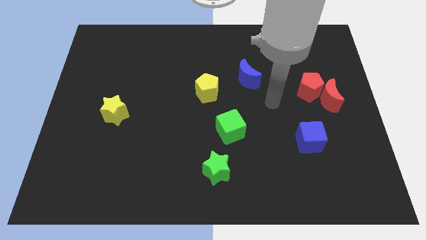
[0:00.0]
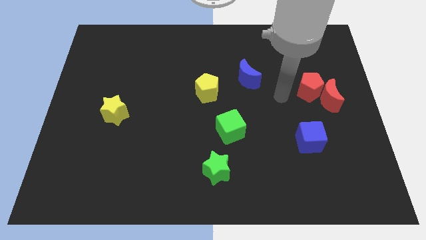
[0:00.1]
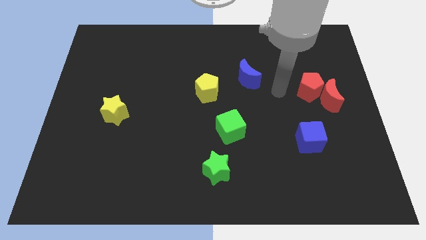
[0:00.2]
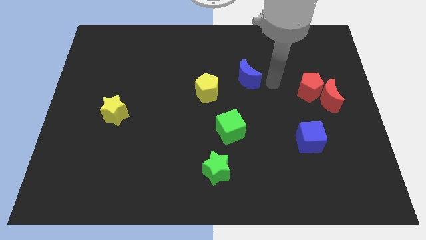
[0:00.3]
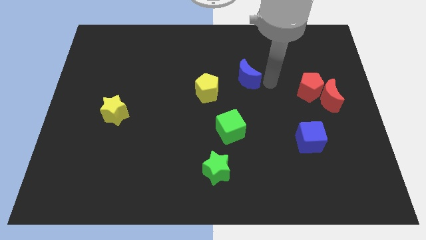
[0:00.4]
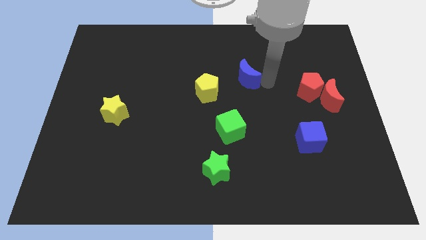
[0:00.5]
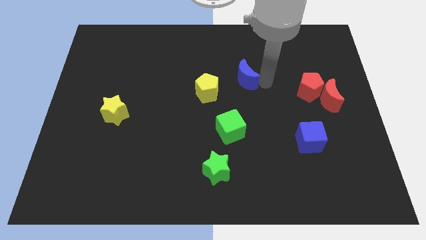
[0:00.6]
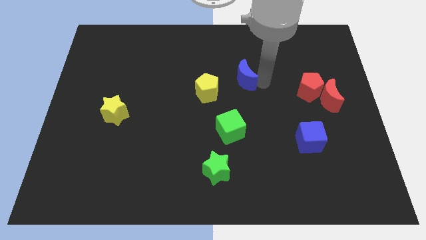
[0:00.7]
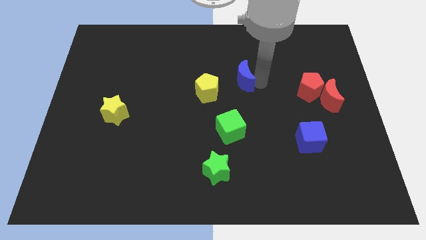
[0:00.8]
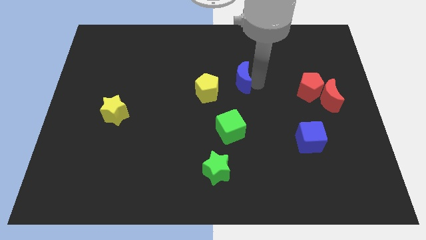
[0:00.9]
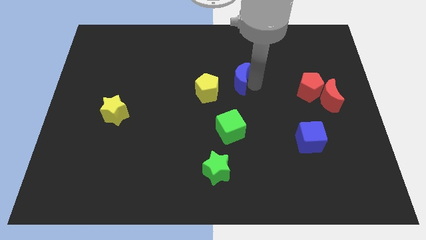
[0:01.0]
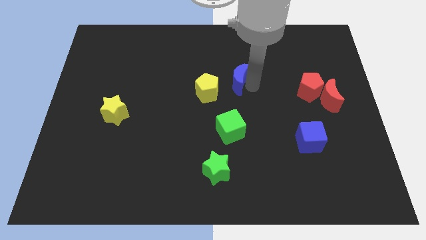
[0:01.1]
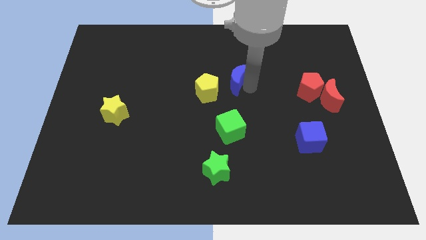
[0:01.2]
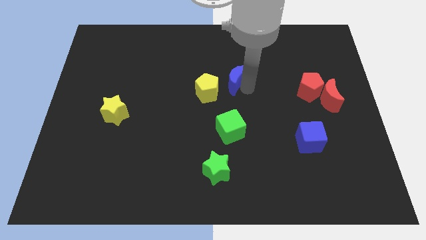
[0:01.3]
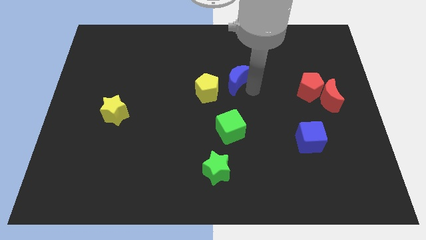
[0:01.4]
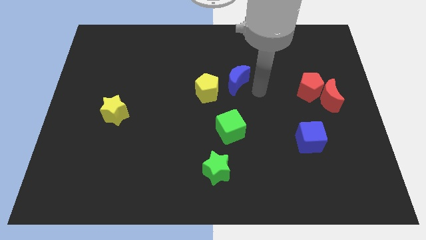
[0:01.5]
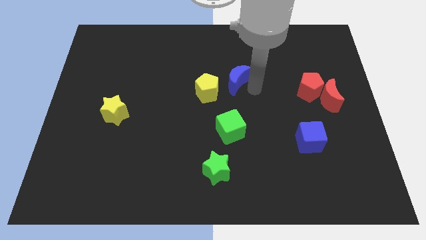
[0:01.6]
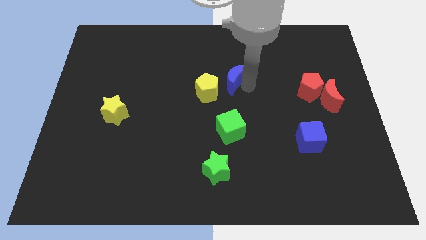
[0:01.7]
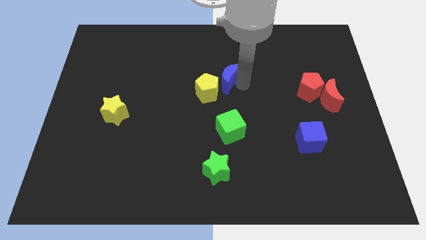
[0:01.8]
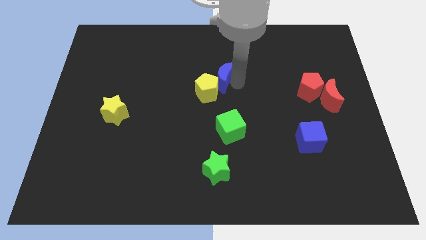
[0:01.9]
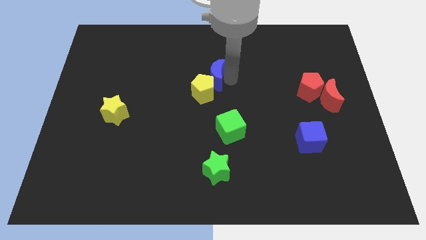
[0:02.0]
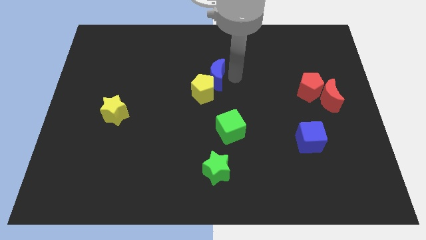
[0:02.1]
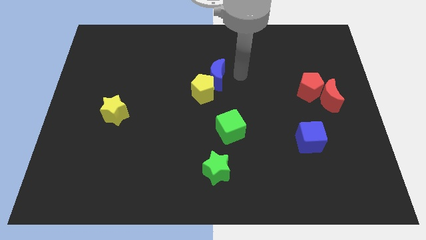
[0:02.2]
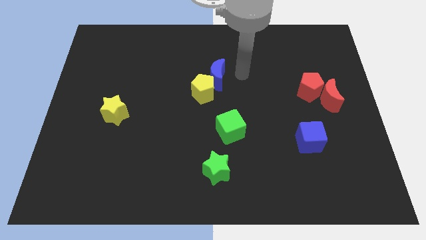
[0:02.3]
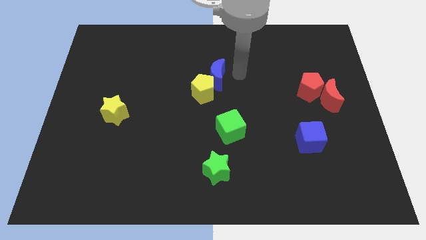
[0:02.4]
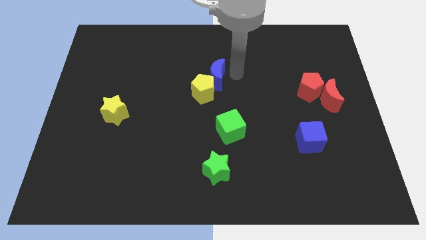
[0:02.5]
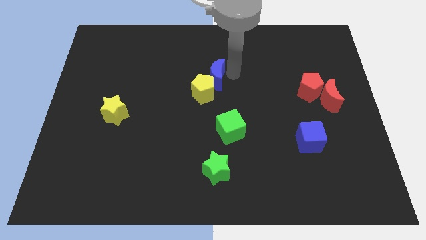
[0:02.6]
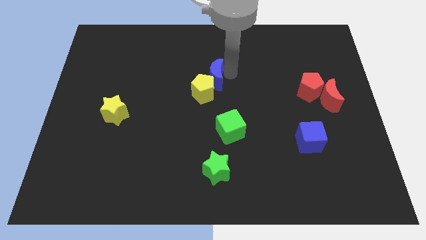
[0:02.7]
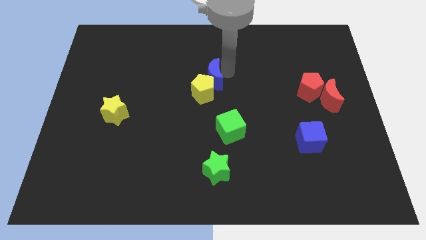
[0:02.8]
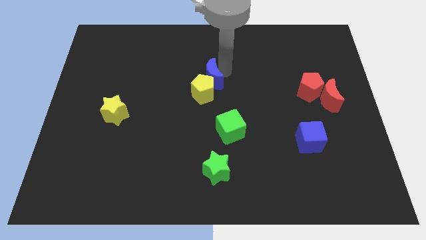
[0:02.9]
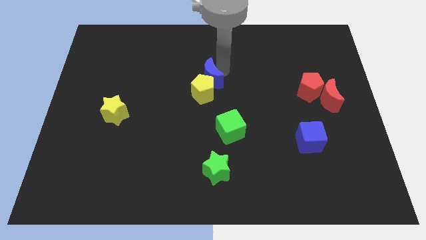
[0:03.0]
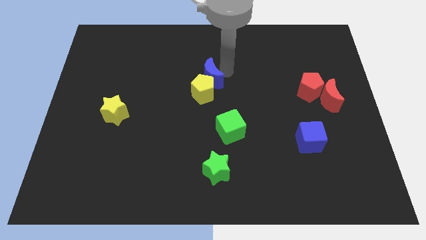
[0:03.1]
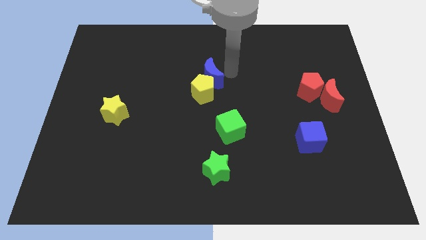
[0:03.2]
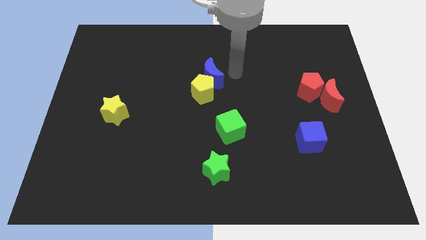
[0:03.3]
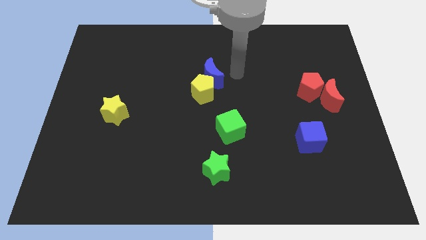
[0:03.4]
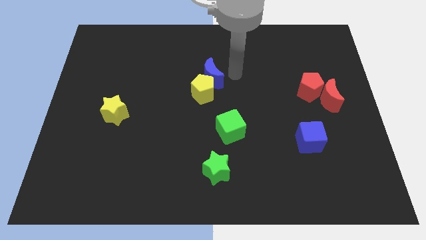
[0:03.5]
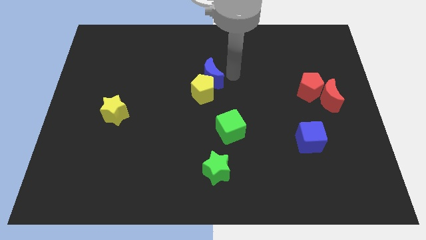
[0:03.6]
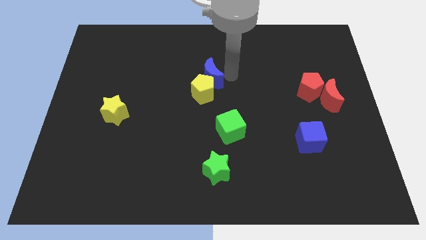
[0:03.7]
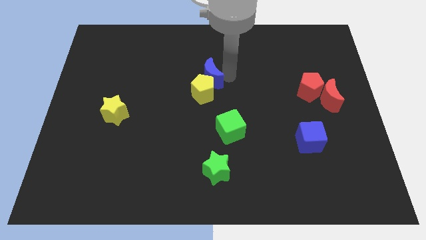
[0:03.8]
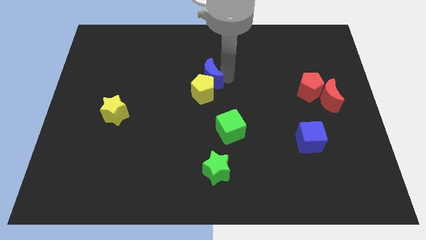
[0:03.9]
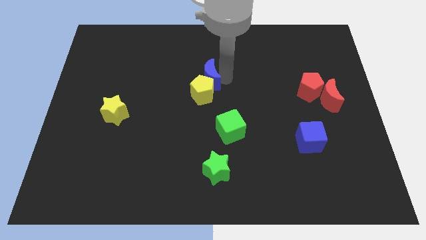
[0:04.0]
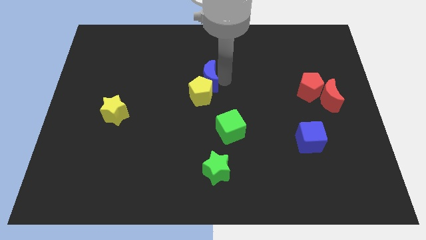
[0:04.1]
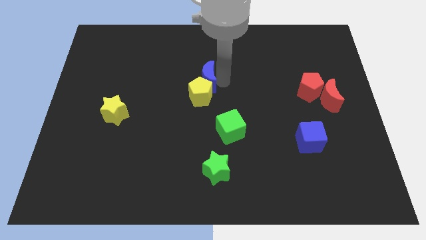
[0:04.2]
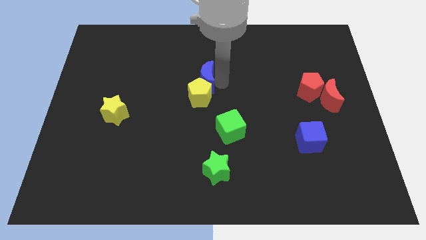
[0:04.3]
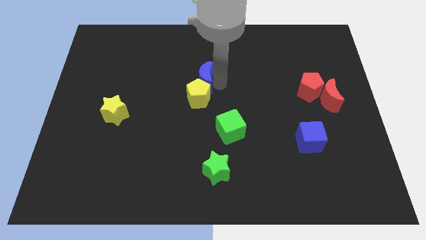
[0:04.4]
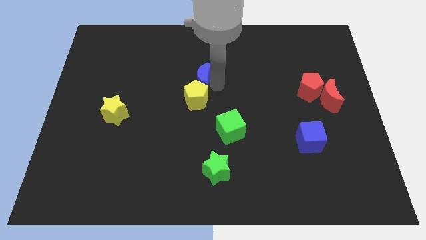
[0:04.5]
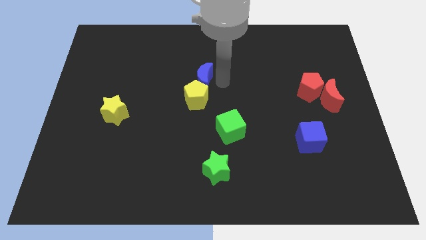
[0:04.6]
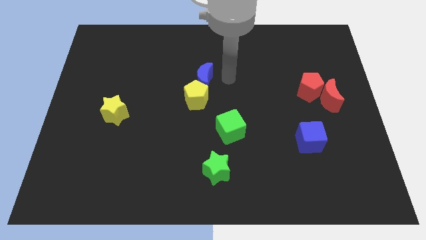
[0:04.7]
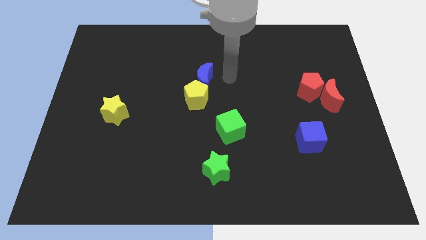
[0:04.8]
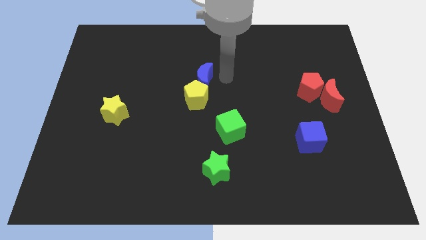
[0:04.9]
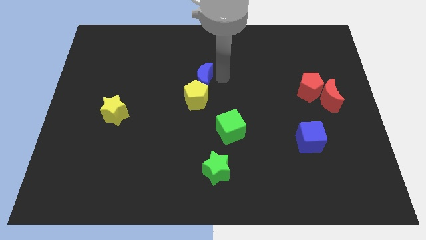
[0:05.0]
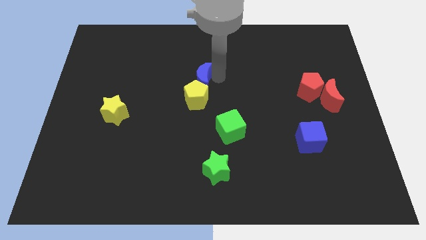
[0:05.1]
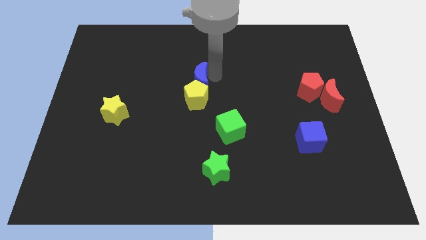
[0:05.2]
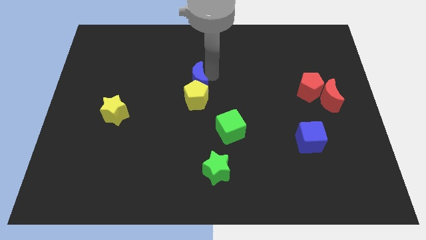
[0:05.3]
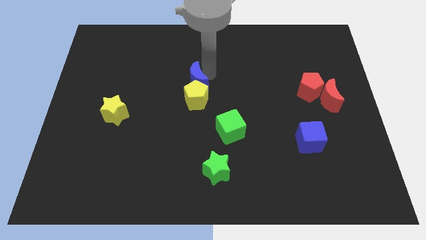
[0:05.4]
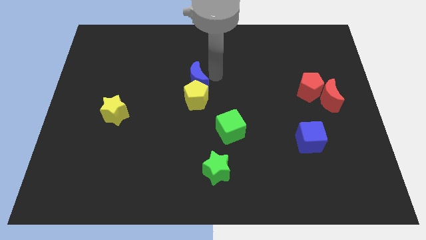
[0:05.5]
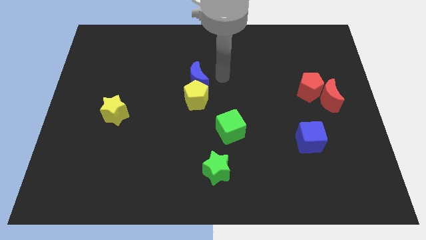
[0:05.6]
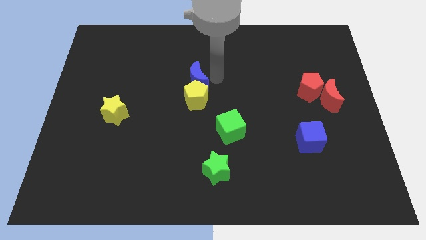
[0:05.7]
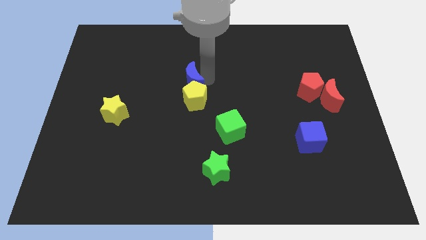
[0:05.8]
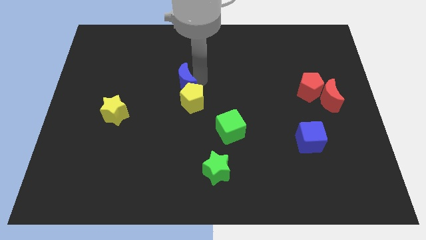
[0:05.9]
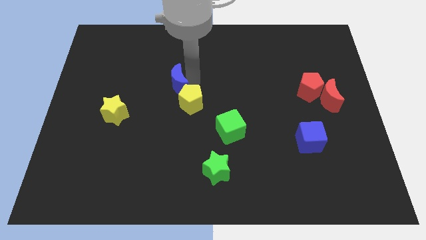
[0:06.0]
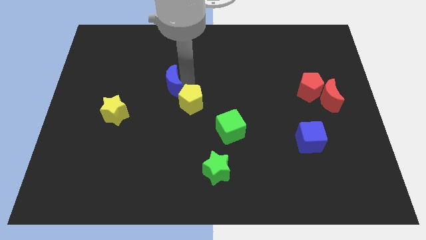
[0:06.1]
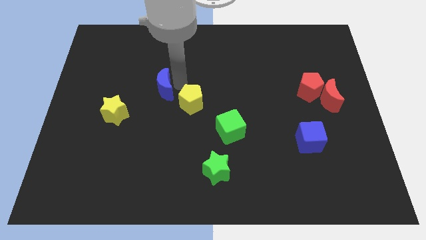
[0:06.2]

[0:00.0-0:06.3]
slide the blue moon left

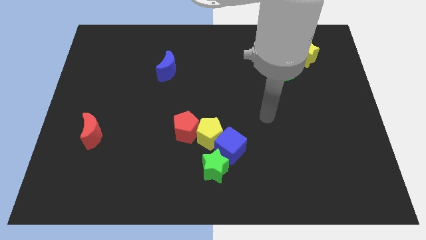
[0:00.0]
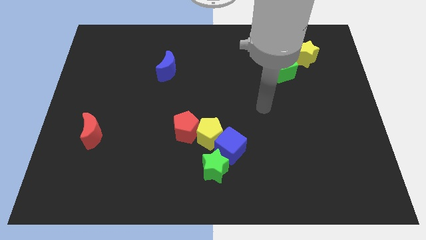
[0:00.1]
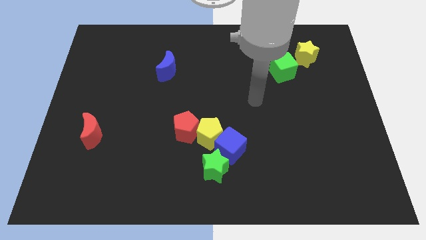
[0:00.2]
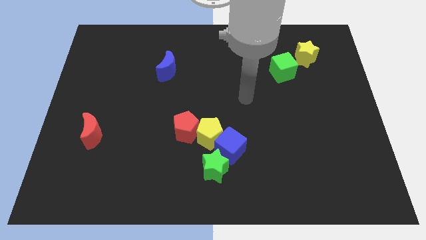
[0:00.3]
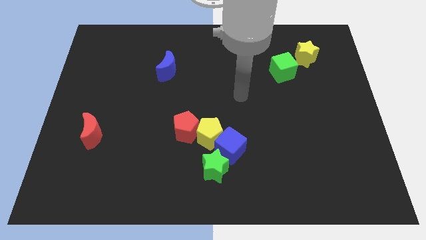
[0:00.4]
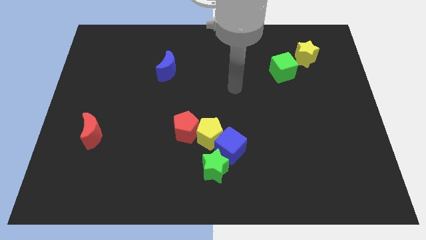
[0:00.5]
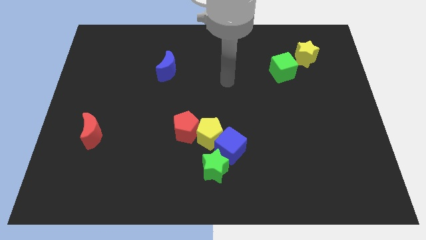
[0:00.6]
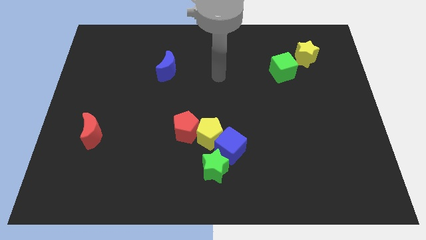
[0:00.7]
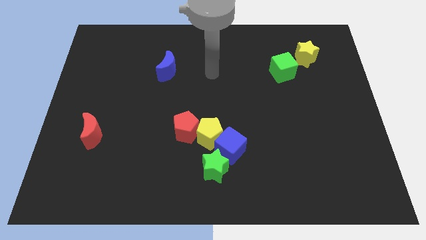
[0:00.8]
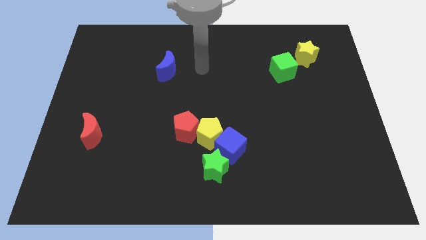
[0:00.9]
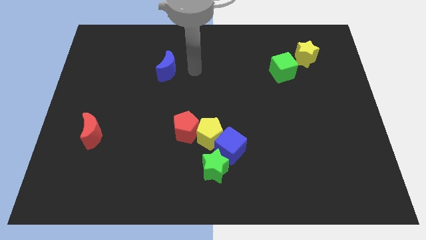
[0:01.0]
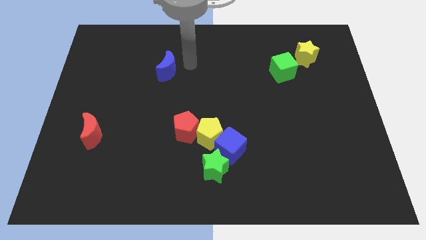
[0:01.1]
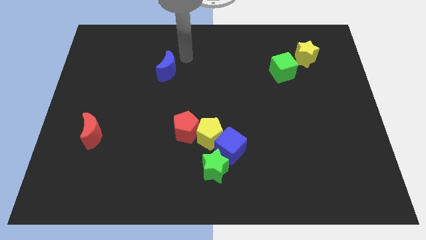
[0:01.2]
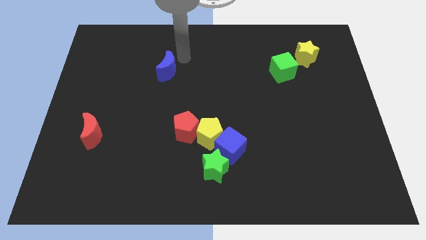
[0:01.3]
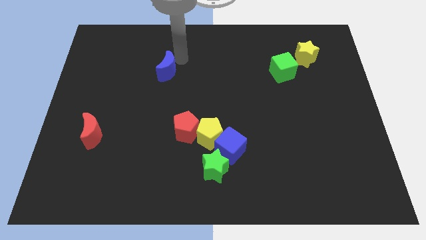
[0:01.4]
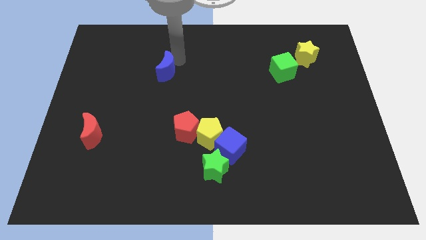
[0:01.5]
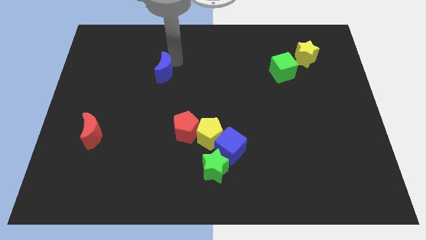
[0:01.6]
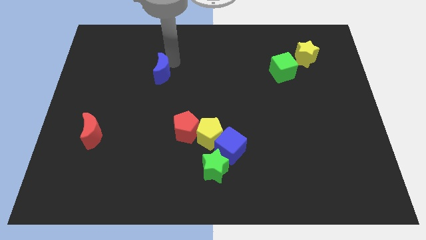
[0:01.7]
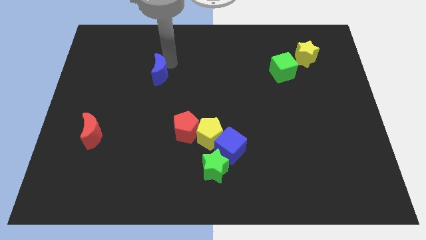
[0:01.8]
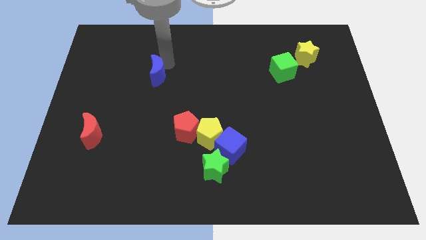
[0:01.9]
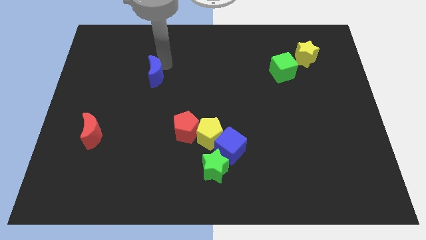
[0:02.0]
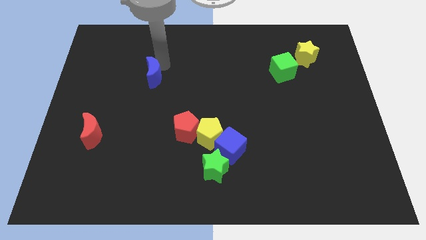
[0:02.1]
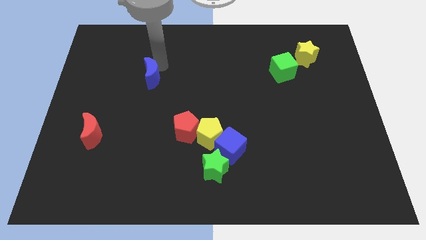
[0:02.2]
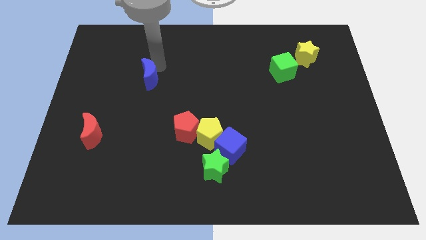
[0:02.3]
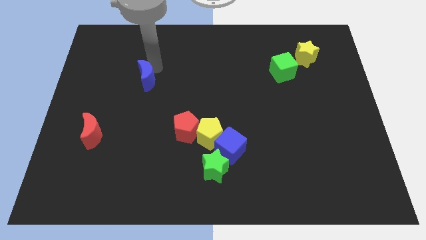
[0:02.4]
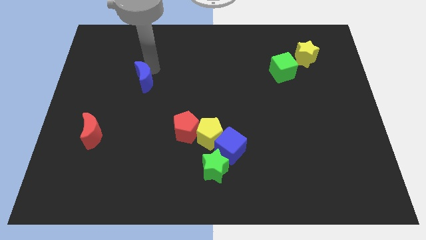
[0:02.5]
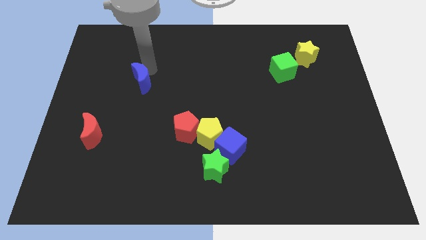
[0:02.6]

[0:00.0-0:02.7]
push the blue moon slightly downwards and left
